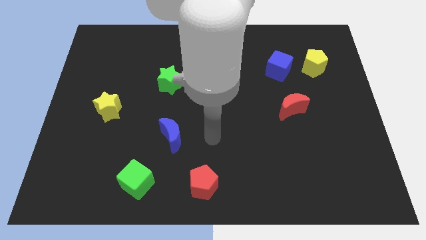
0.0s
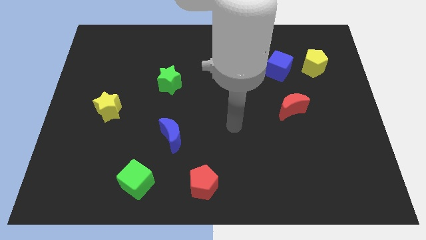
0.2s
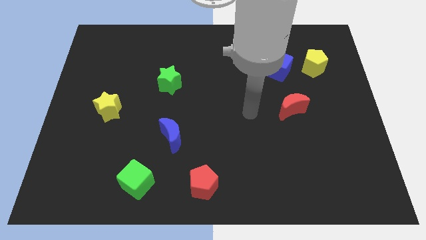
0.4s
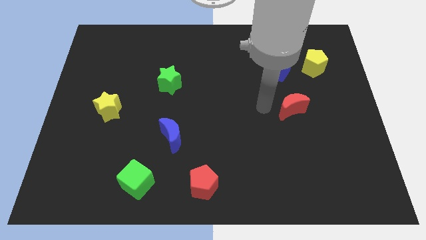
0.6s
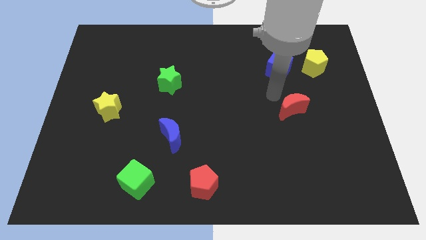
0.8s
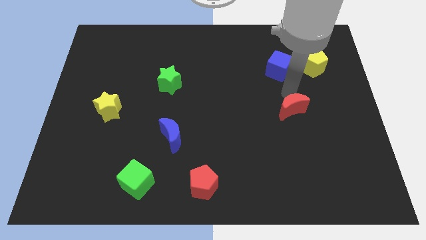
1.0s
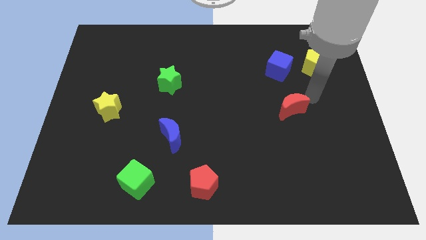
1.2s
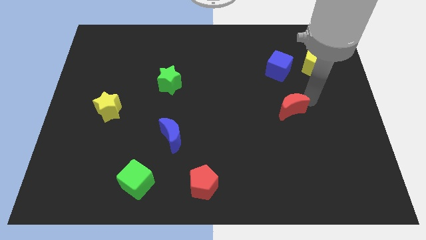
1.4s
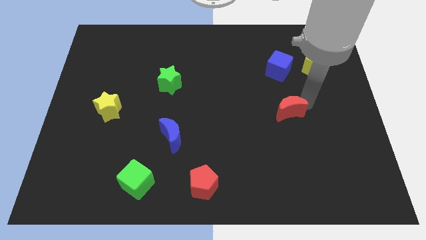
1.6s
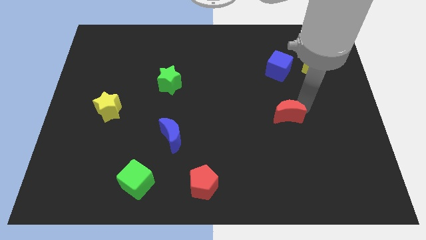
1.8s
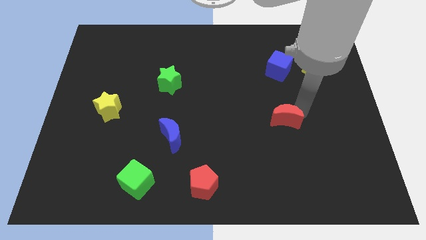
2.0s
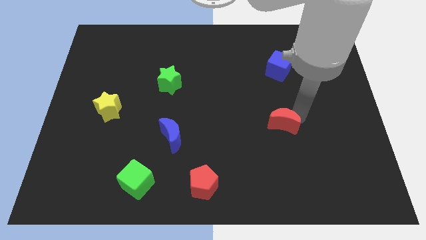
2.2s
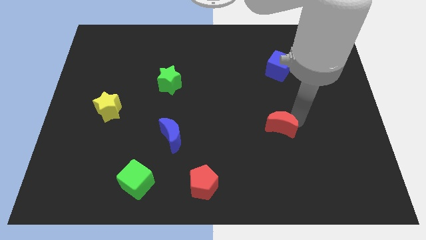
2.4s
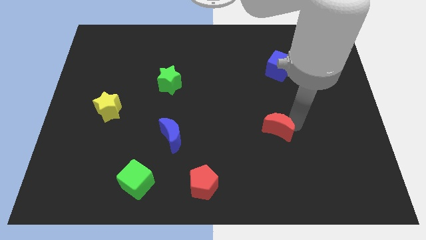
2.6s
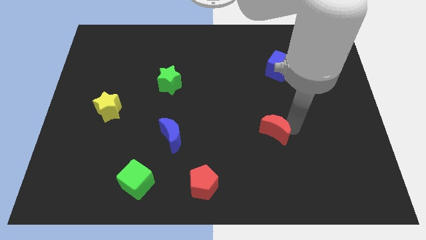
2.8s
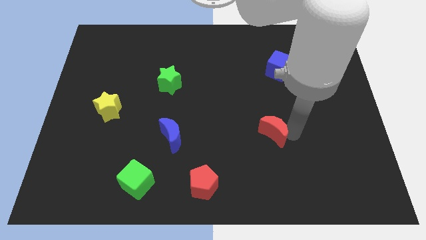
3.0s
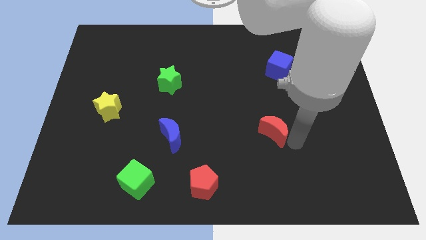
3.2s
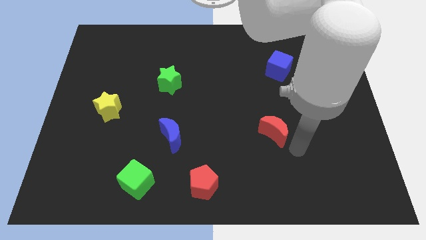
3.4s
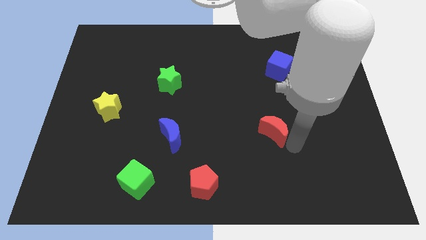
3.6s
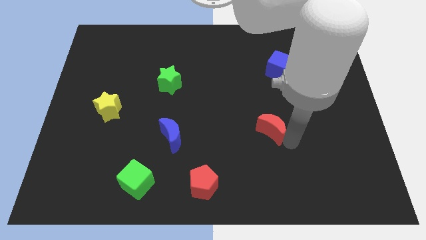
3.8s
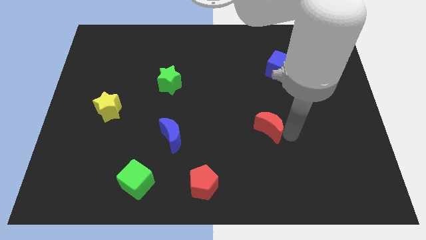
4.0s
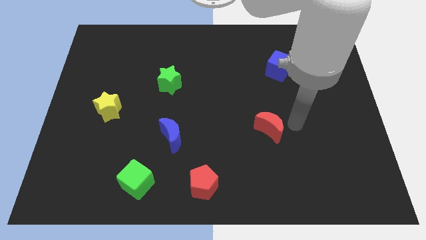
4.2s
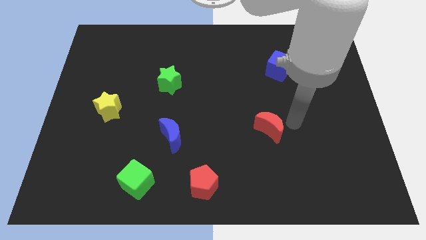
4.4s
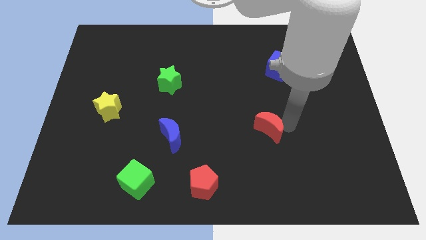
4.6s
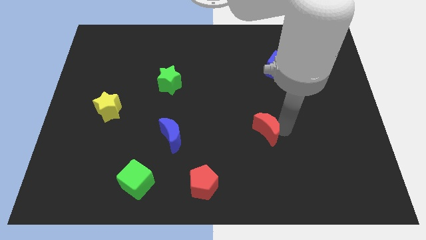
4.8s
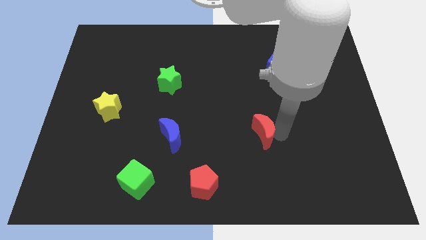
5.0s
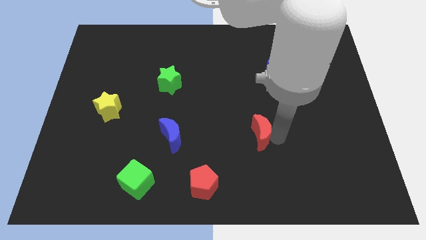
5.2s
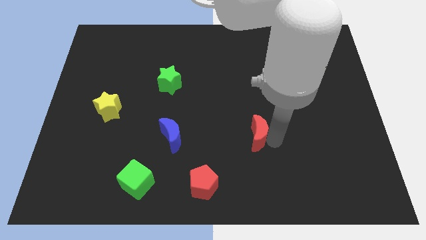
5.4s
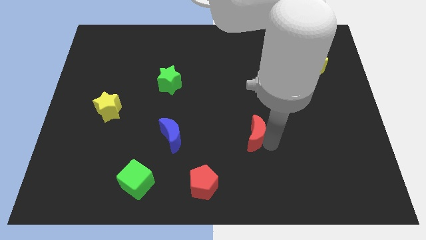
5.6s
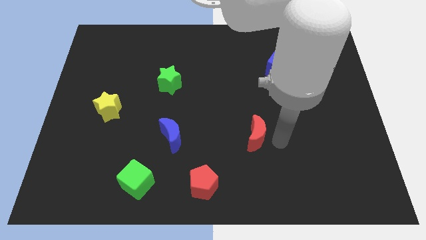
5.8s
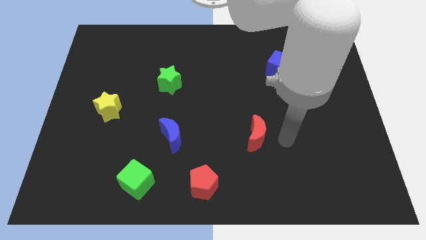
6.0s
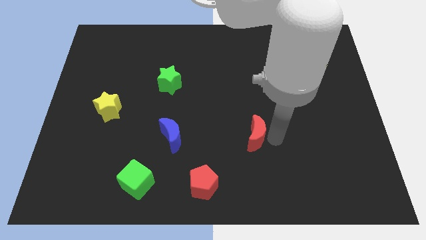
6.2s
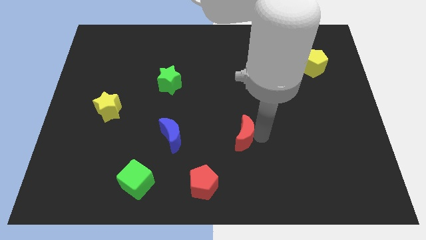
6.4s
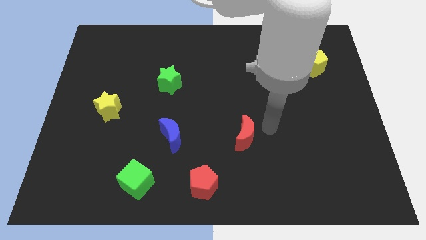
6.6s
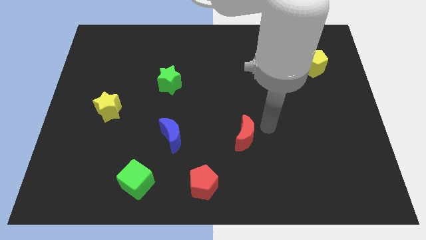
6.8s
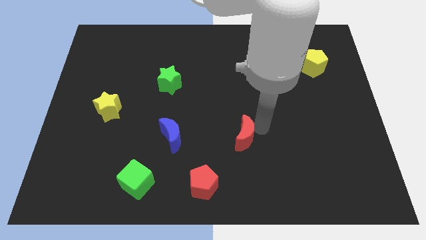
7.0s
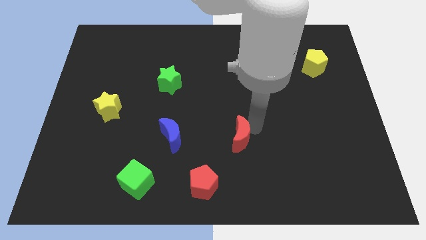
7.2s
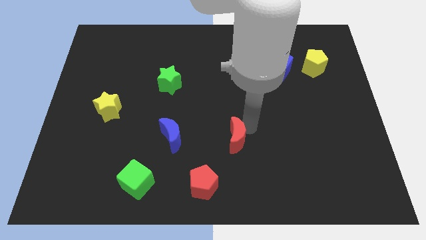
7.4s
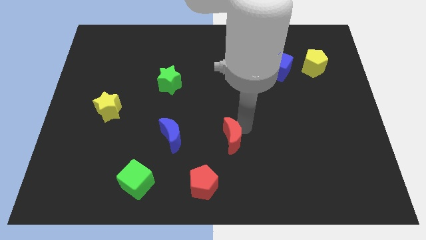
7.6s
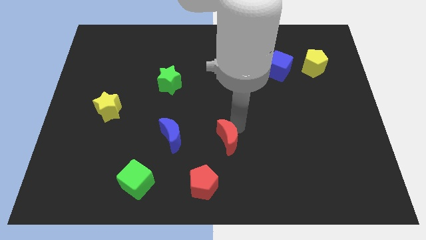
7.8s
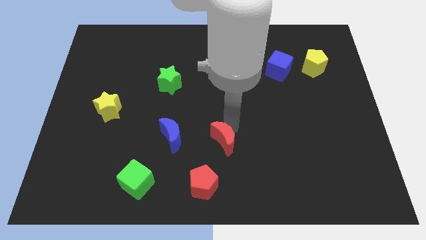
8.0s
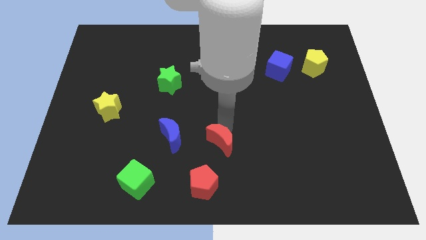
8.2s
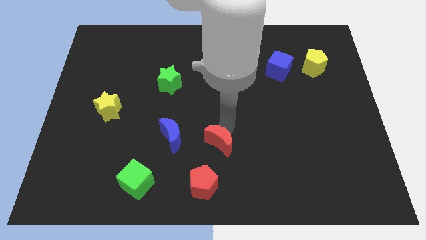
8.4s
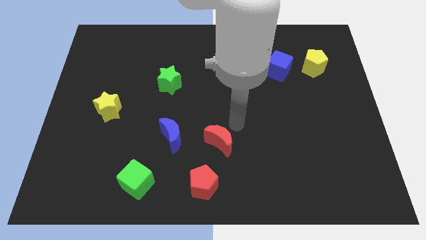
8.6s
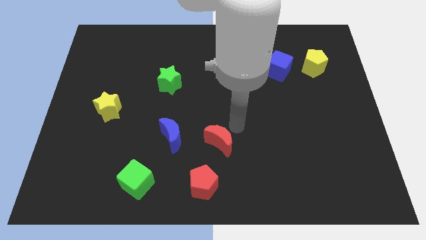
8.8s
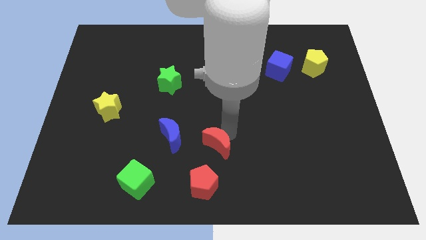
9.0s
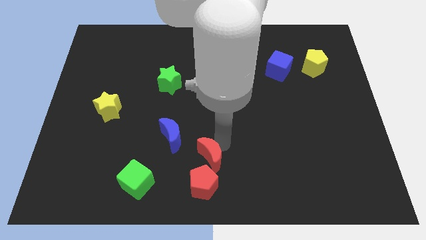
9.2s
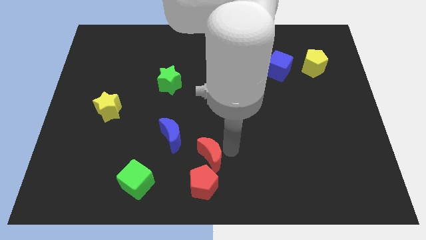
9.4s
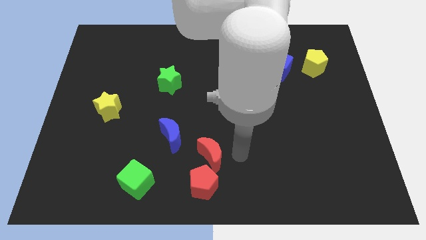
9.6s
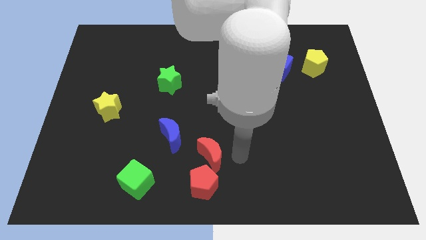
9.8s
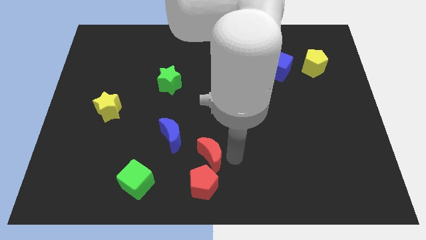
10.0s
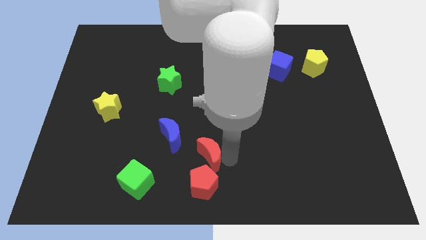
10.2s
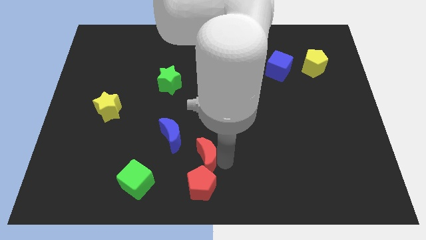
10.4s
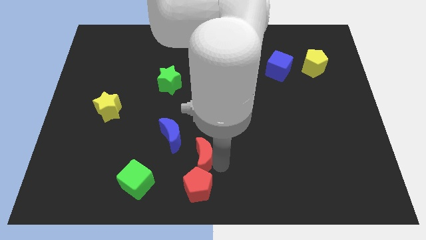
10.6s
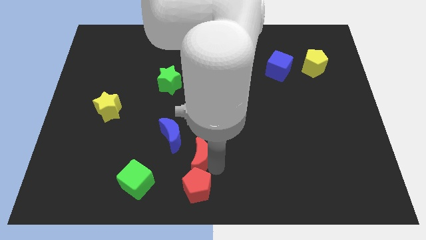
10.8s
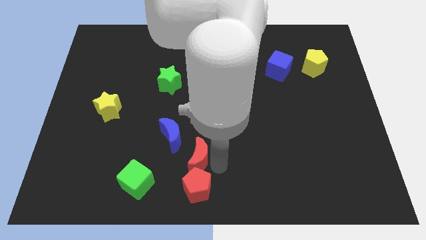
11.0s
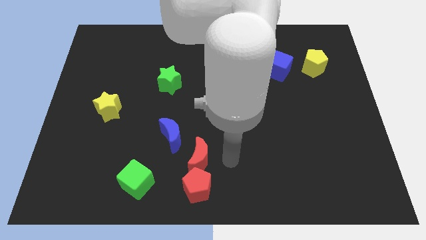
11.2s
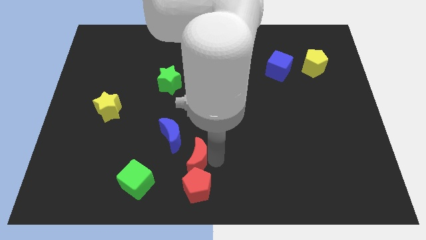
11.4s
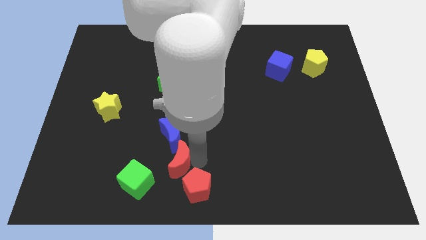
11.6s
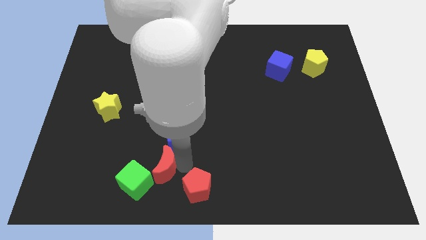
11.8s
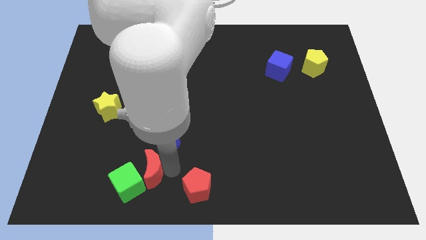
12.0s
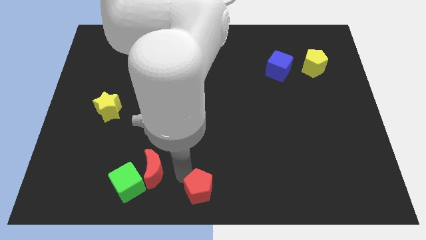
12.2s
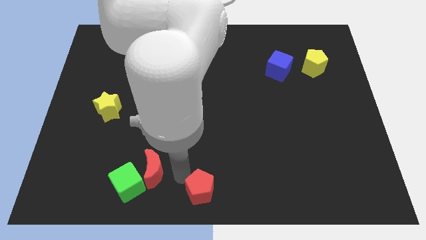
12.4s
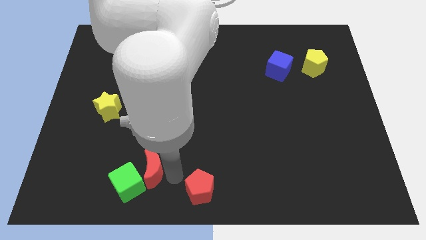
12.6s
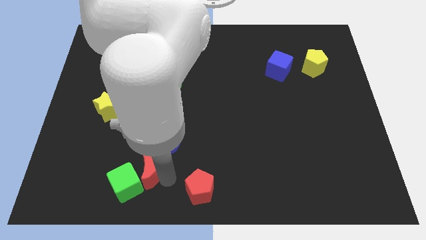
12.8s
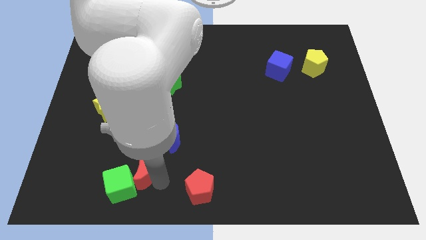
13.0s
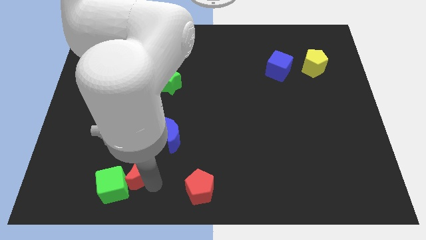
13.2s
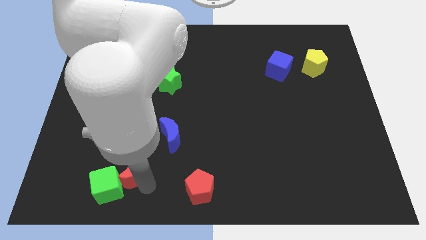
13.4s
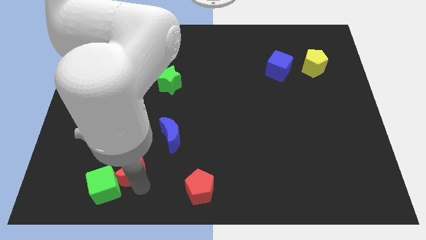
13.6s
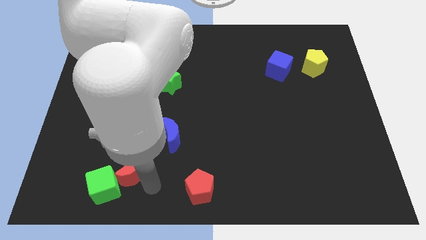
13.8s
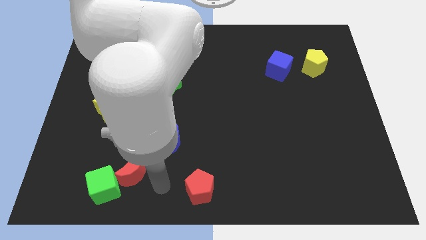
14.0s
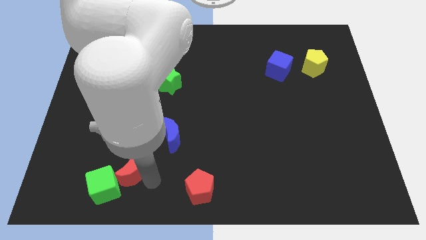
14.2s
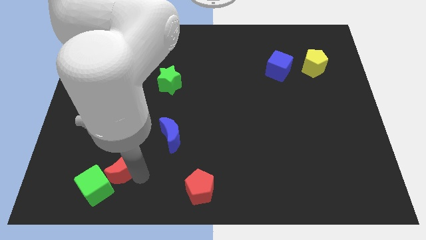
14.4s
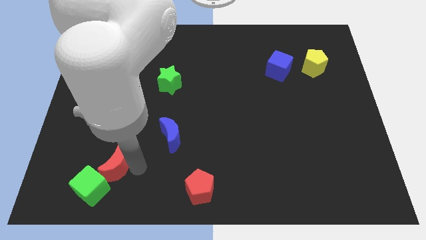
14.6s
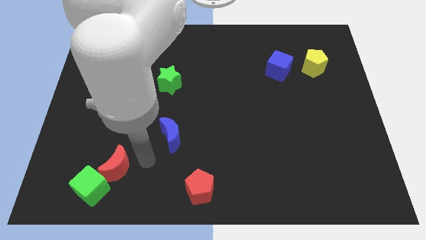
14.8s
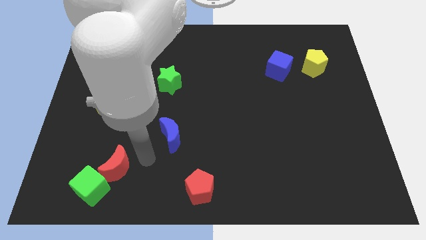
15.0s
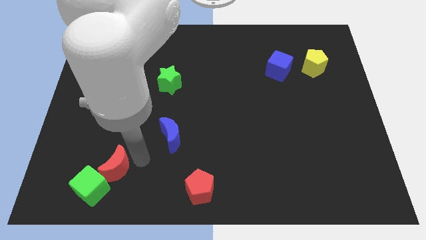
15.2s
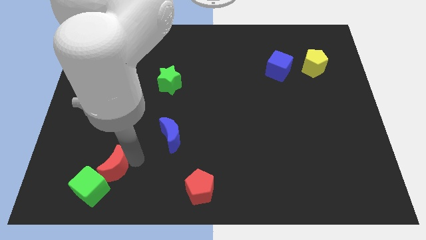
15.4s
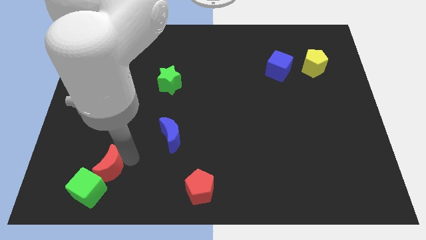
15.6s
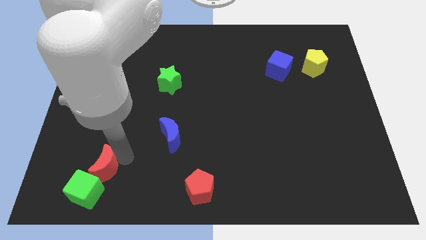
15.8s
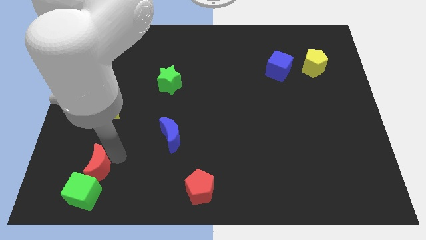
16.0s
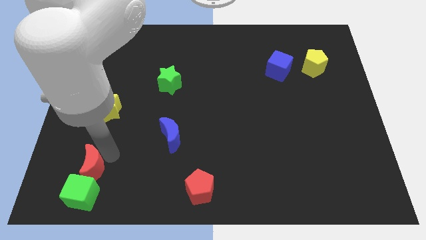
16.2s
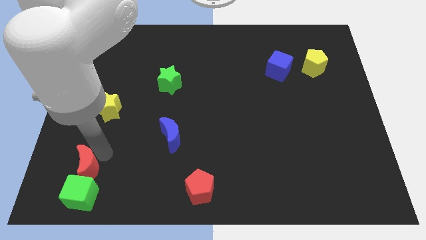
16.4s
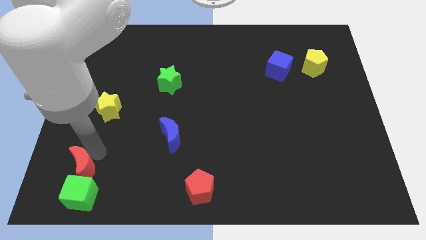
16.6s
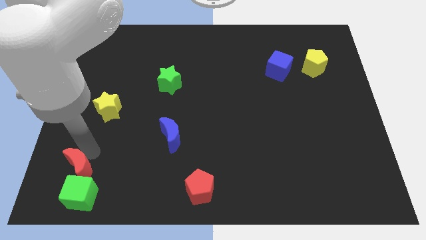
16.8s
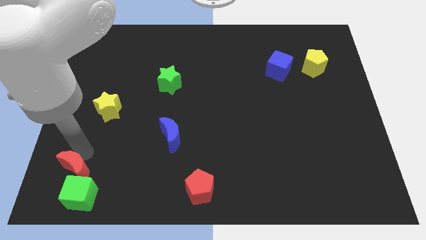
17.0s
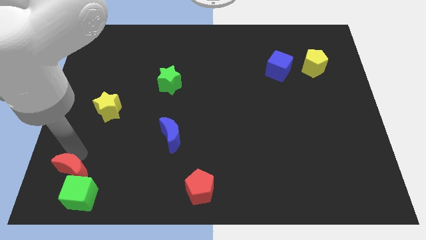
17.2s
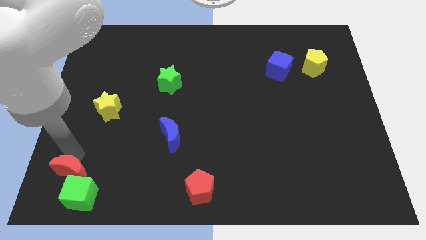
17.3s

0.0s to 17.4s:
move the red moon to the bottom left of the board
